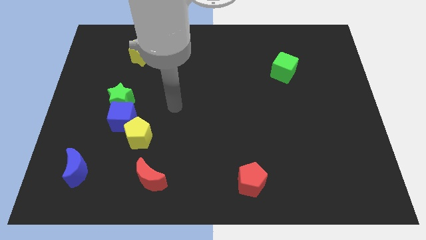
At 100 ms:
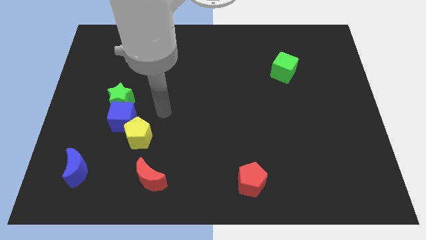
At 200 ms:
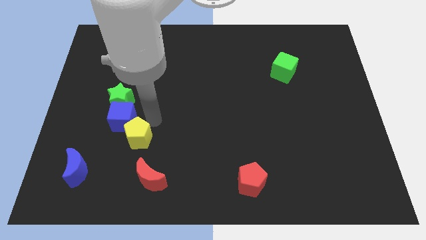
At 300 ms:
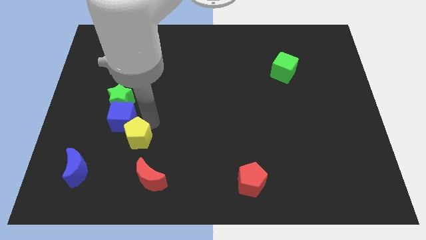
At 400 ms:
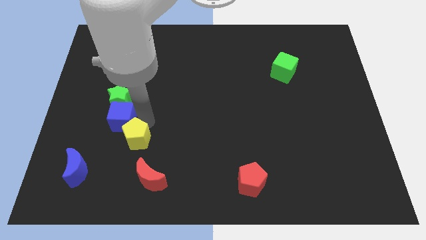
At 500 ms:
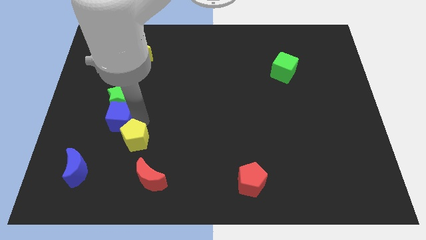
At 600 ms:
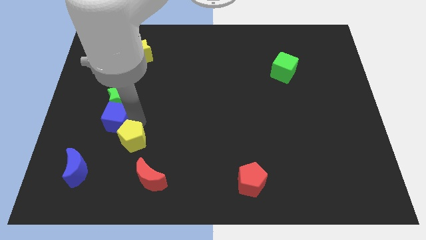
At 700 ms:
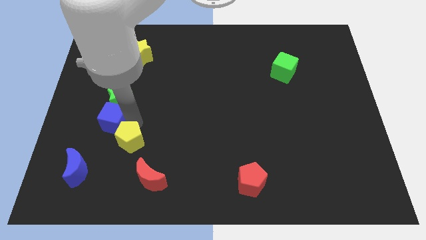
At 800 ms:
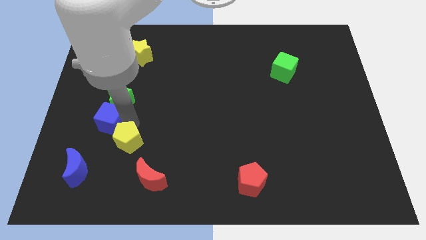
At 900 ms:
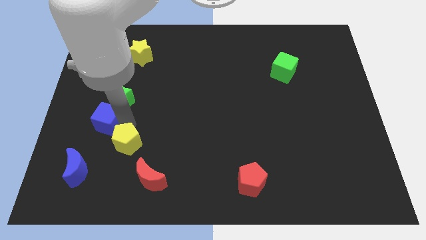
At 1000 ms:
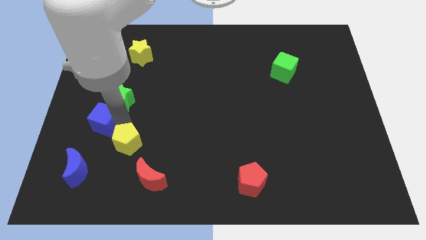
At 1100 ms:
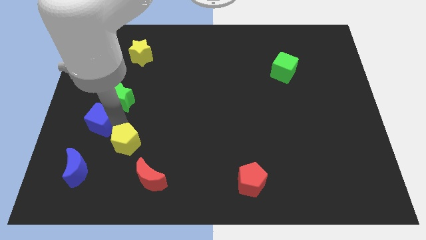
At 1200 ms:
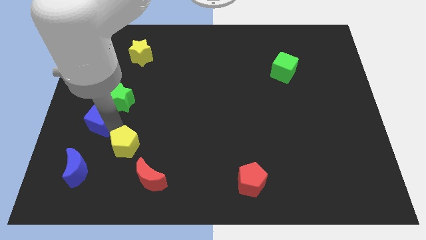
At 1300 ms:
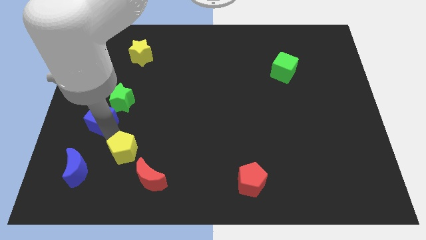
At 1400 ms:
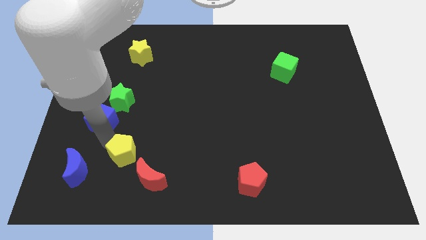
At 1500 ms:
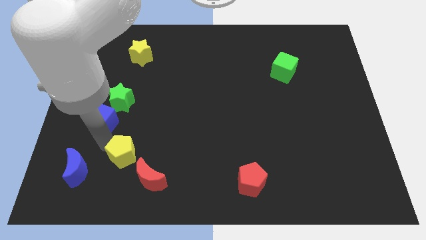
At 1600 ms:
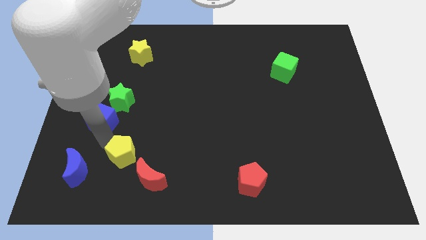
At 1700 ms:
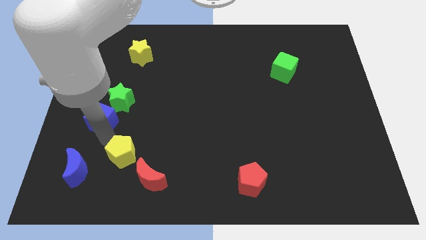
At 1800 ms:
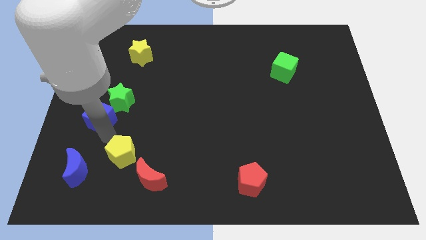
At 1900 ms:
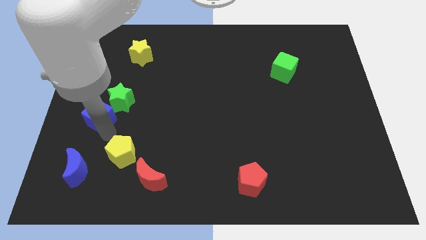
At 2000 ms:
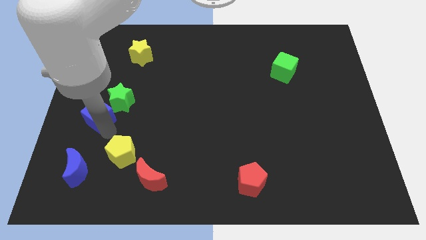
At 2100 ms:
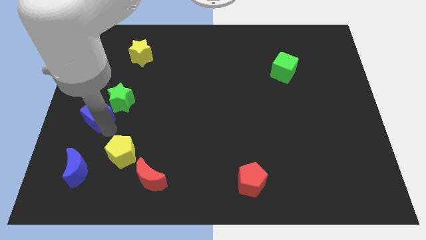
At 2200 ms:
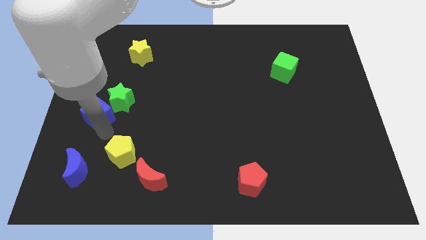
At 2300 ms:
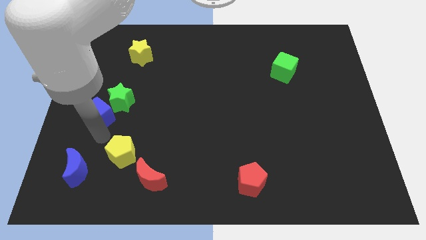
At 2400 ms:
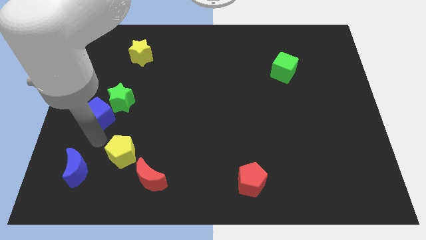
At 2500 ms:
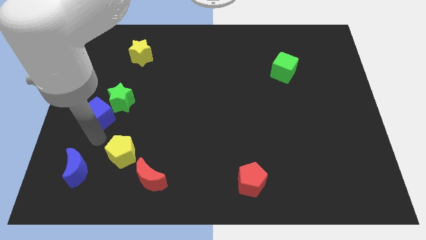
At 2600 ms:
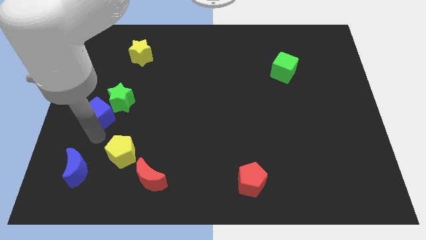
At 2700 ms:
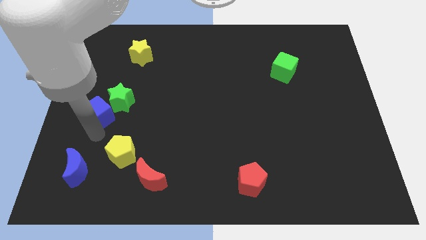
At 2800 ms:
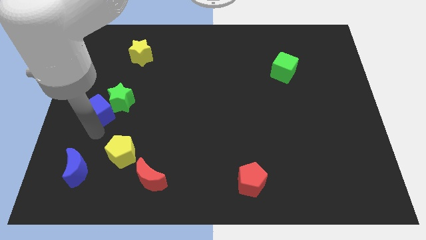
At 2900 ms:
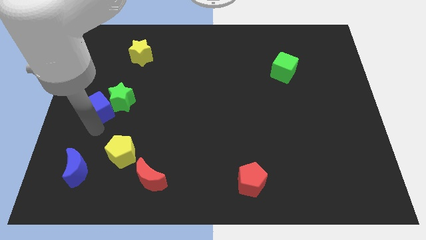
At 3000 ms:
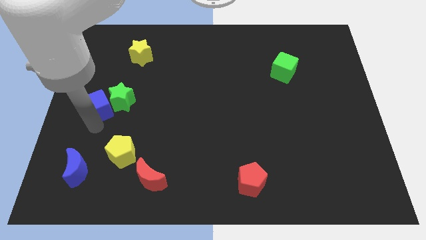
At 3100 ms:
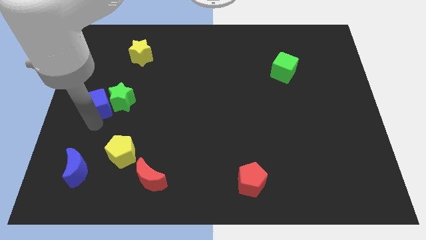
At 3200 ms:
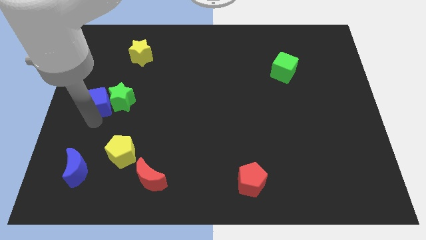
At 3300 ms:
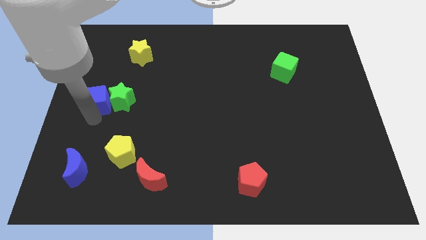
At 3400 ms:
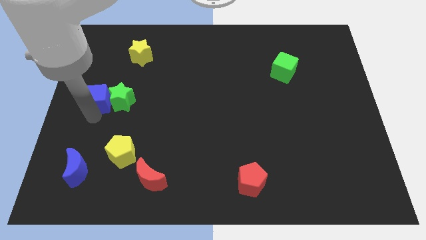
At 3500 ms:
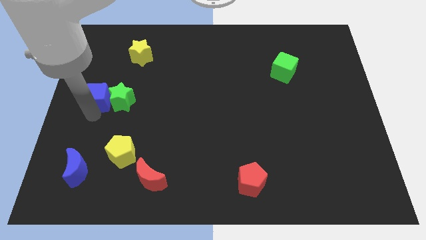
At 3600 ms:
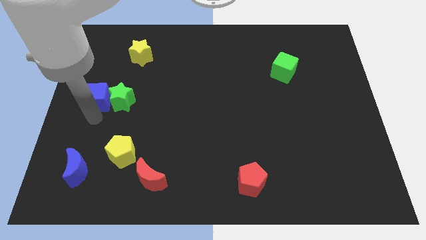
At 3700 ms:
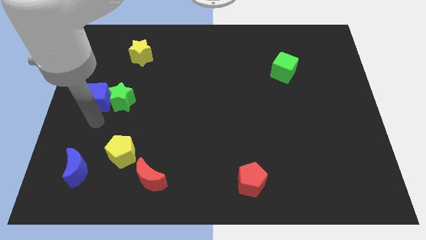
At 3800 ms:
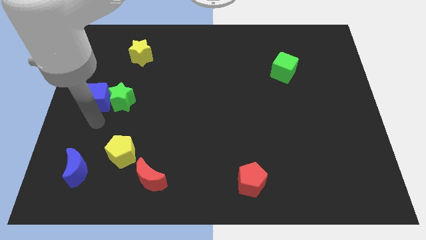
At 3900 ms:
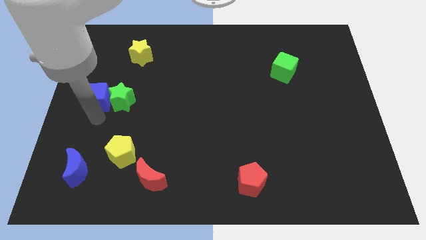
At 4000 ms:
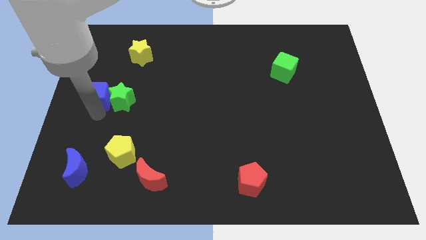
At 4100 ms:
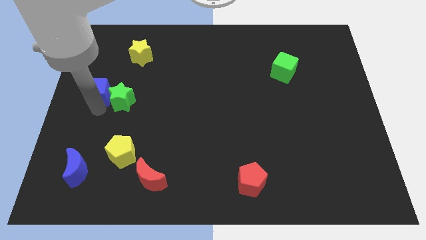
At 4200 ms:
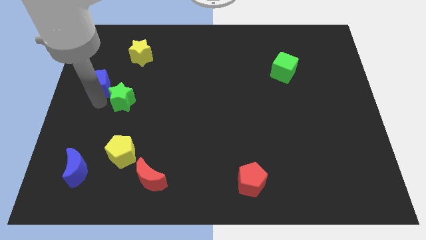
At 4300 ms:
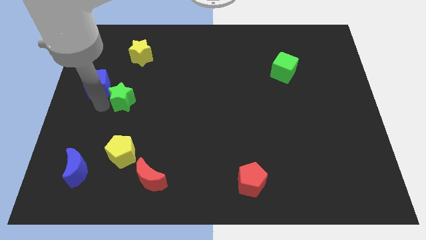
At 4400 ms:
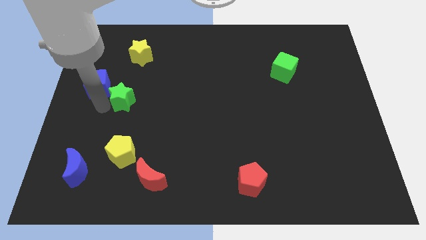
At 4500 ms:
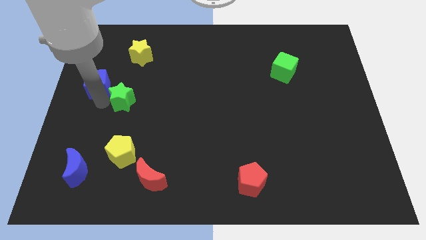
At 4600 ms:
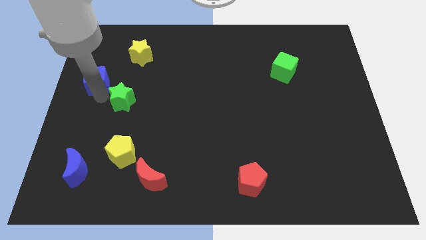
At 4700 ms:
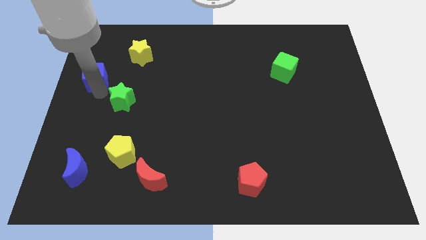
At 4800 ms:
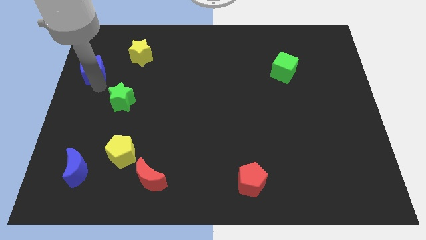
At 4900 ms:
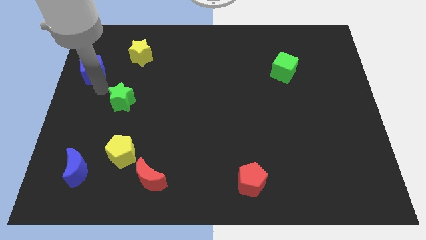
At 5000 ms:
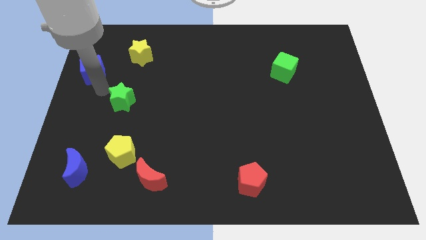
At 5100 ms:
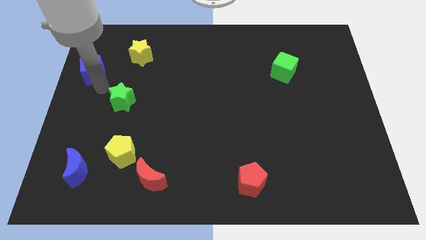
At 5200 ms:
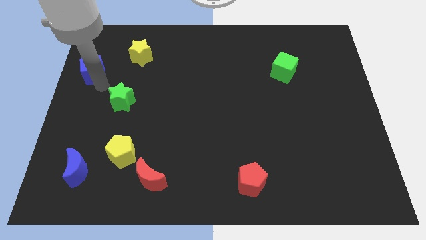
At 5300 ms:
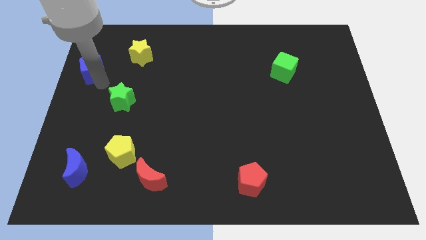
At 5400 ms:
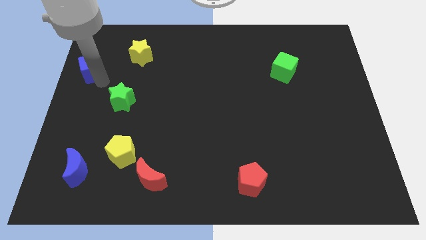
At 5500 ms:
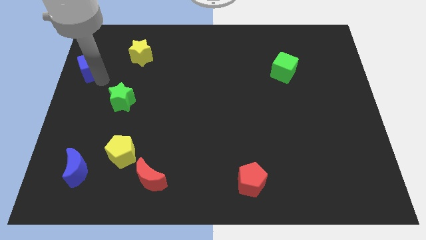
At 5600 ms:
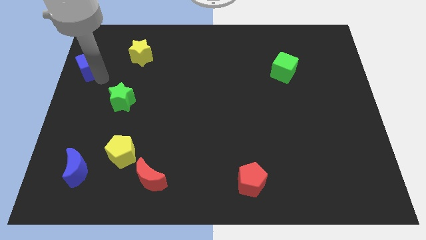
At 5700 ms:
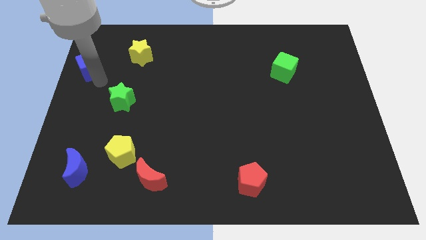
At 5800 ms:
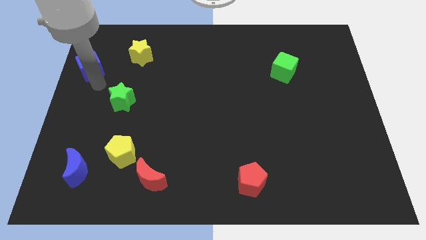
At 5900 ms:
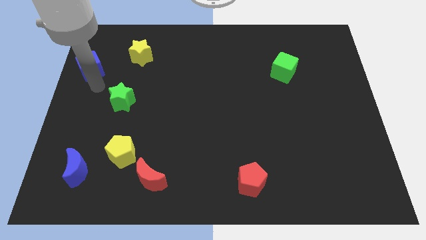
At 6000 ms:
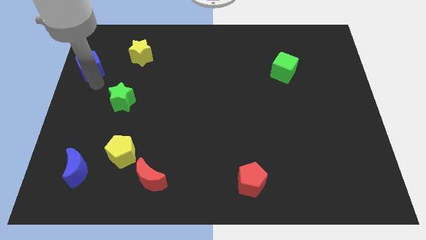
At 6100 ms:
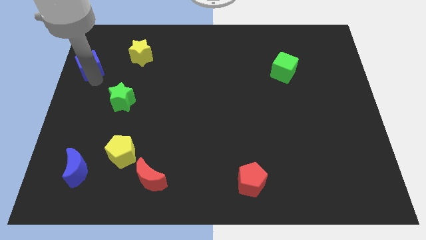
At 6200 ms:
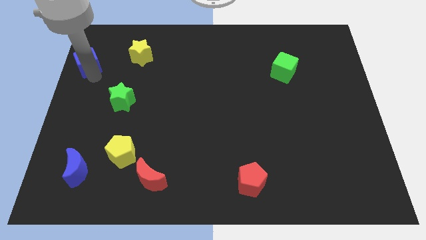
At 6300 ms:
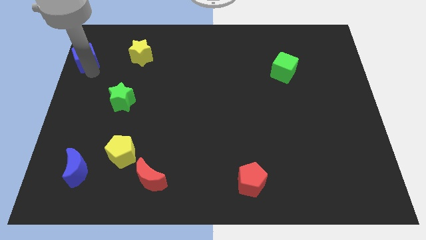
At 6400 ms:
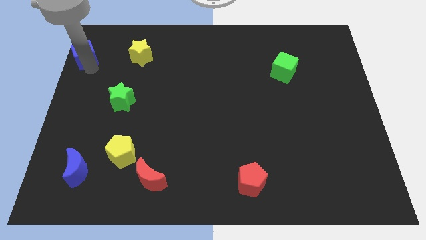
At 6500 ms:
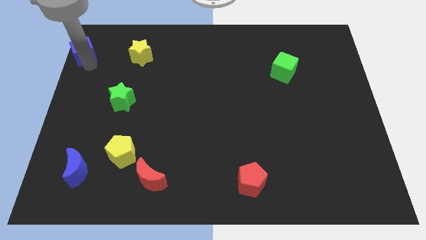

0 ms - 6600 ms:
slide the blue cube to the upper left corner
